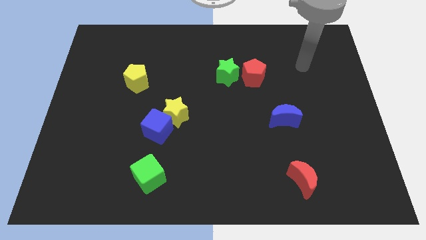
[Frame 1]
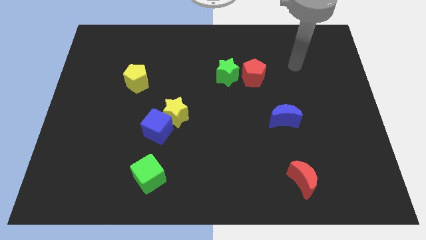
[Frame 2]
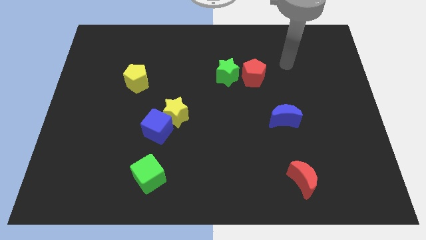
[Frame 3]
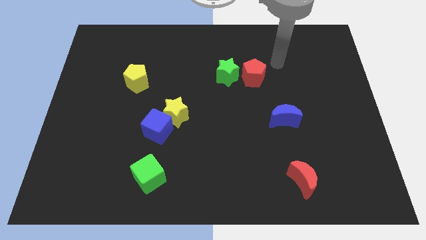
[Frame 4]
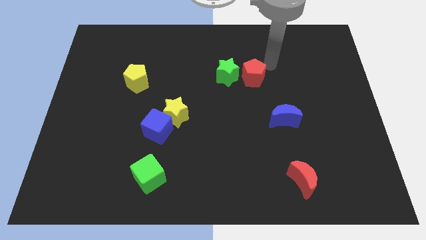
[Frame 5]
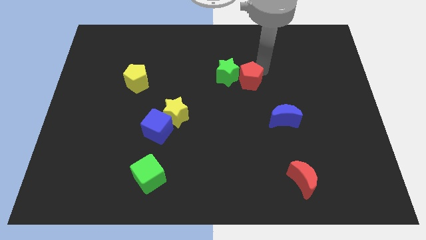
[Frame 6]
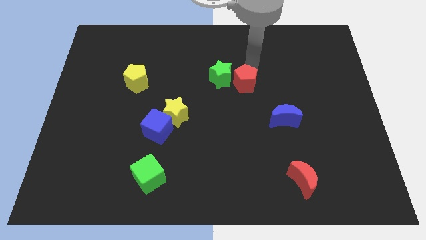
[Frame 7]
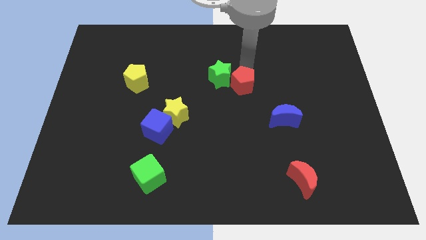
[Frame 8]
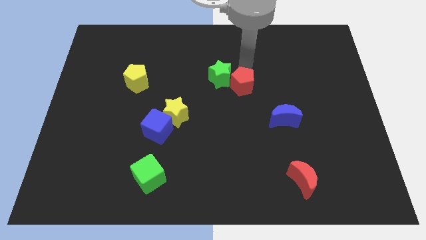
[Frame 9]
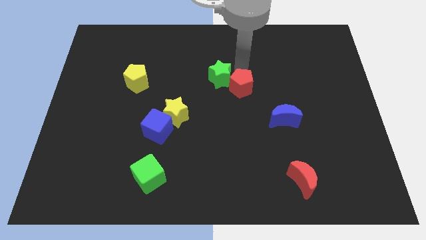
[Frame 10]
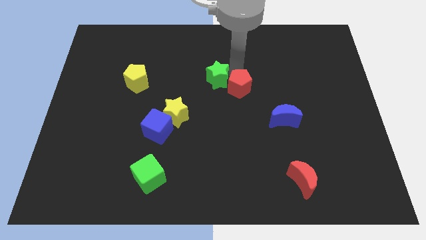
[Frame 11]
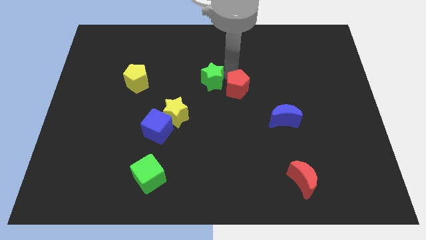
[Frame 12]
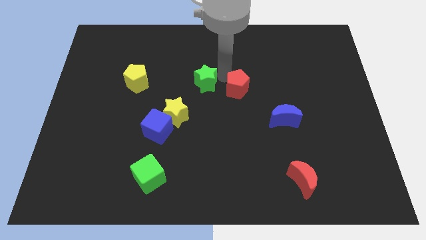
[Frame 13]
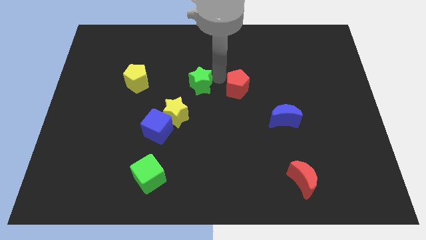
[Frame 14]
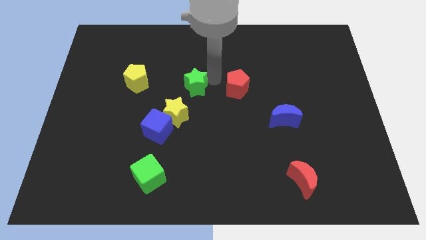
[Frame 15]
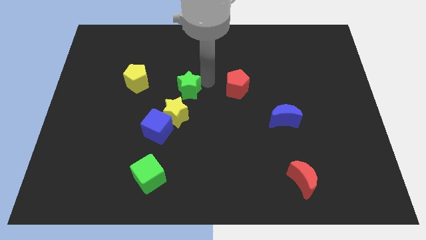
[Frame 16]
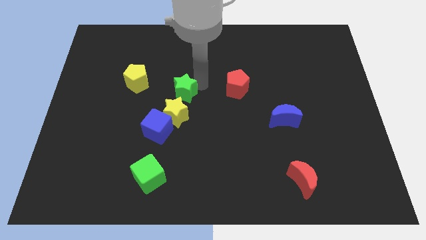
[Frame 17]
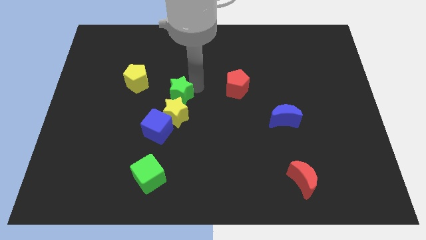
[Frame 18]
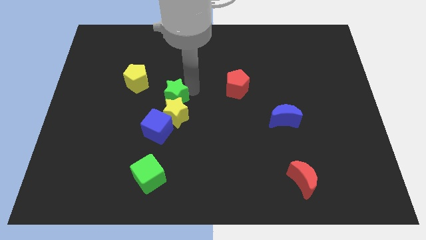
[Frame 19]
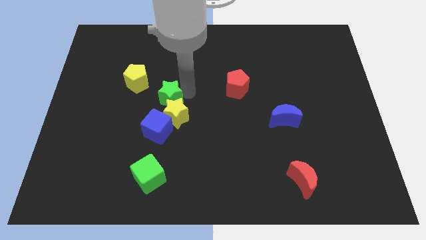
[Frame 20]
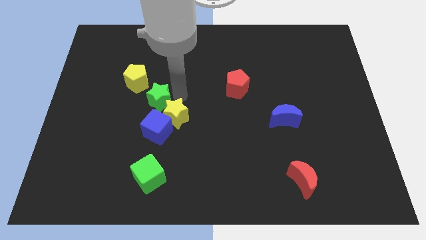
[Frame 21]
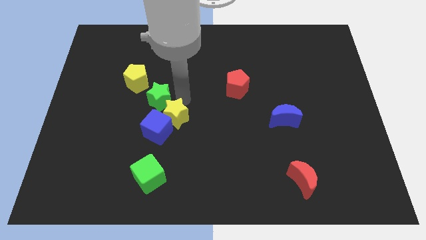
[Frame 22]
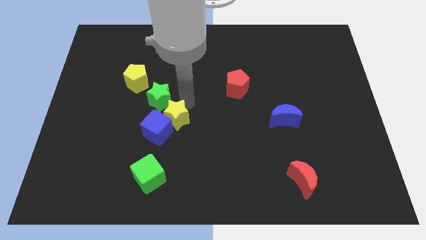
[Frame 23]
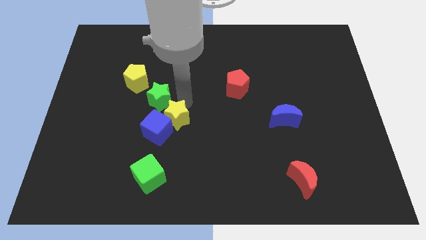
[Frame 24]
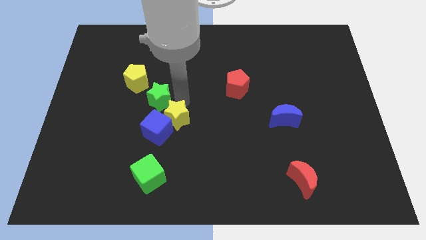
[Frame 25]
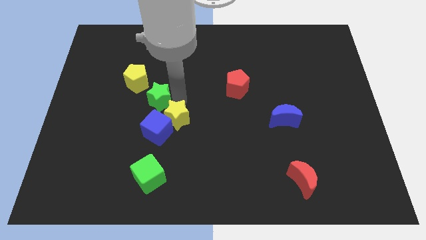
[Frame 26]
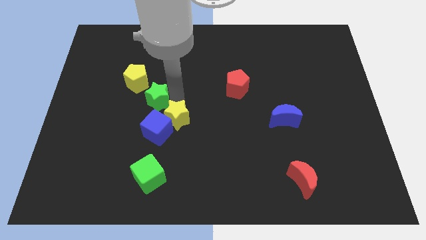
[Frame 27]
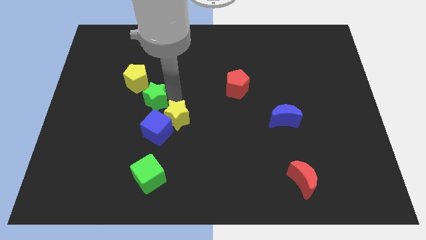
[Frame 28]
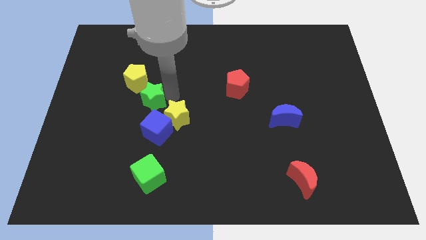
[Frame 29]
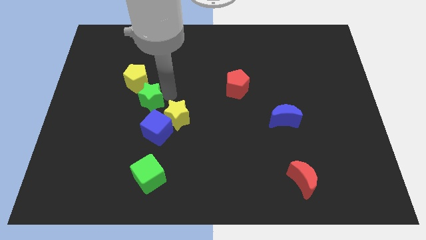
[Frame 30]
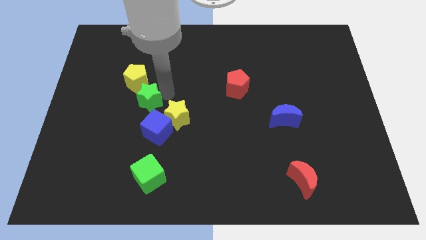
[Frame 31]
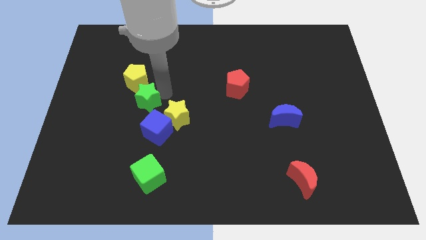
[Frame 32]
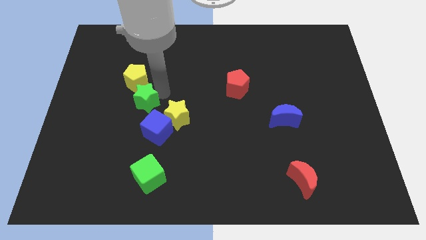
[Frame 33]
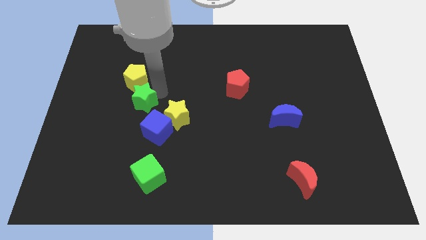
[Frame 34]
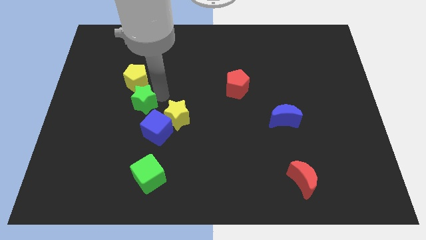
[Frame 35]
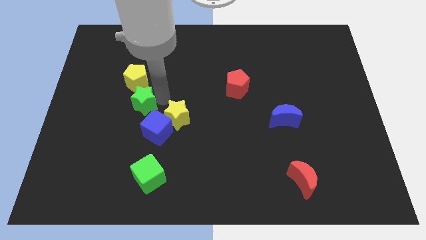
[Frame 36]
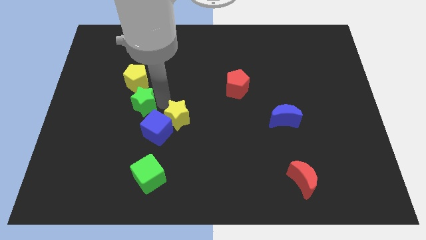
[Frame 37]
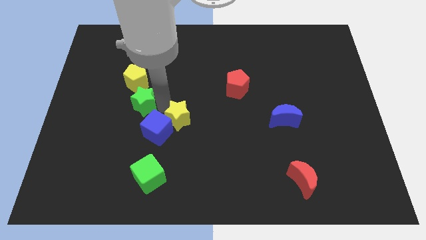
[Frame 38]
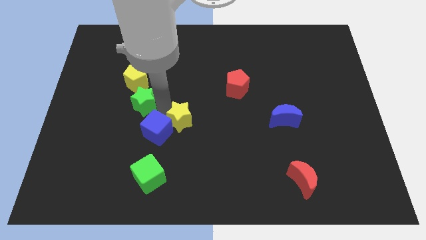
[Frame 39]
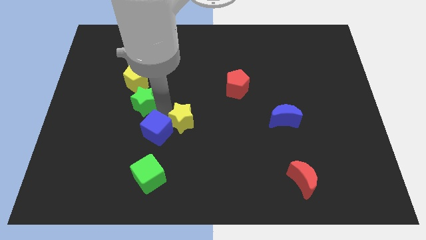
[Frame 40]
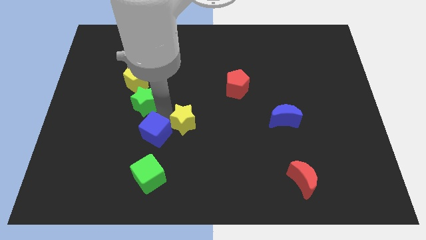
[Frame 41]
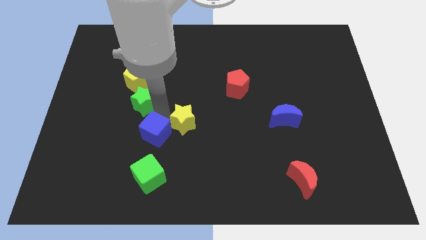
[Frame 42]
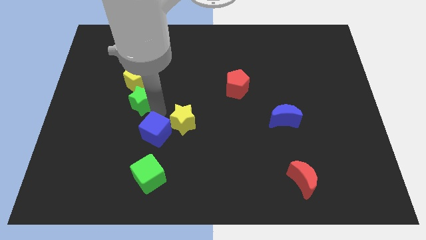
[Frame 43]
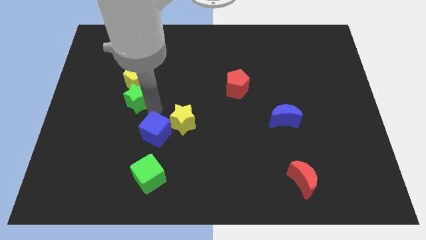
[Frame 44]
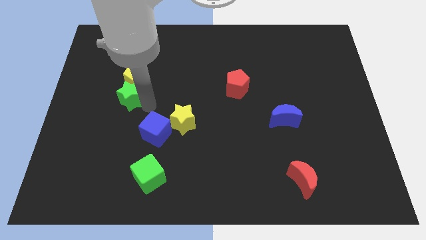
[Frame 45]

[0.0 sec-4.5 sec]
slide the green star to the left

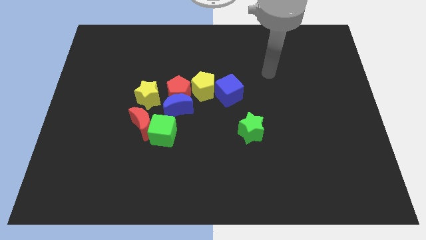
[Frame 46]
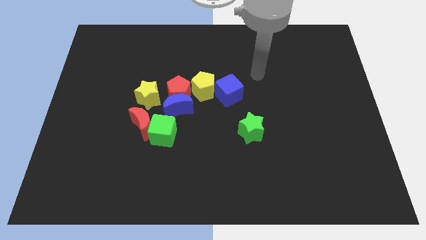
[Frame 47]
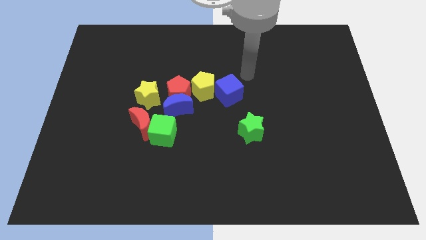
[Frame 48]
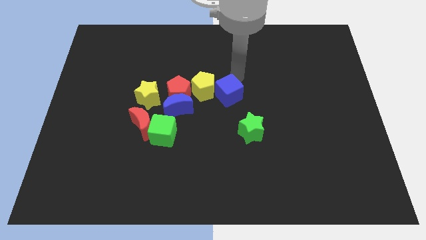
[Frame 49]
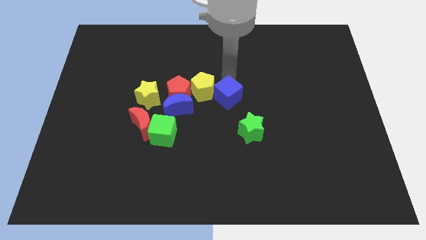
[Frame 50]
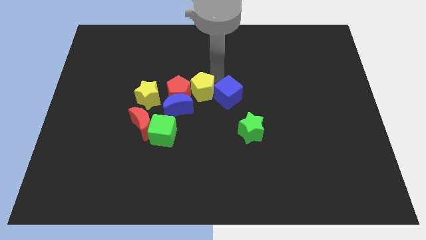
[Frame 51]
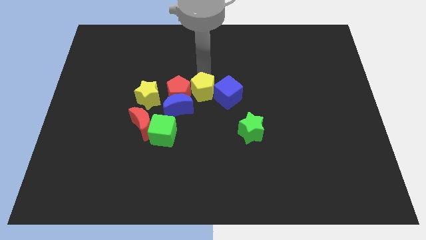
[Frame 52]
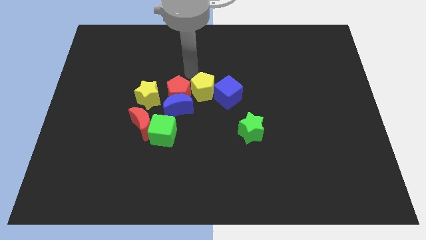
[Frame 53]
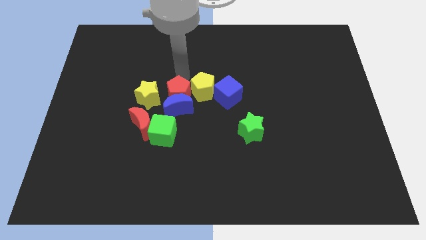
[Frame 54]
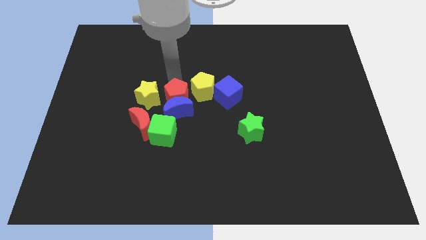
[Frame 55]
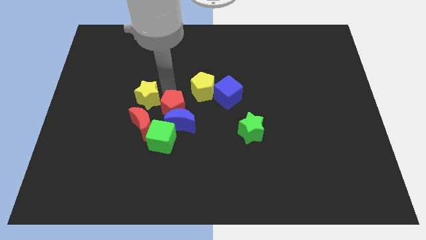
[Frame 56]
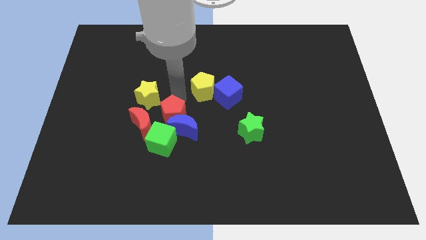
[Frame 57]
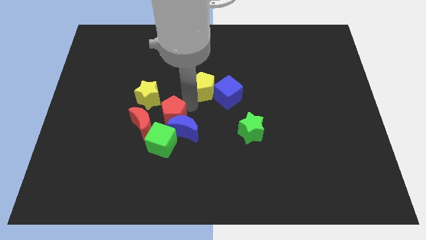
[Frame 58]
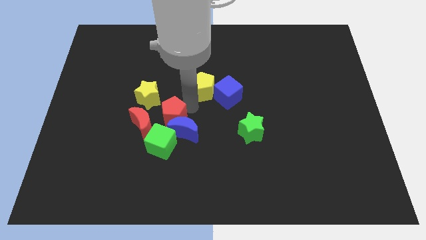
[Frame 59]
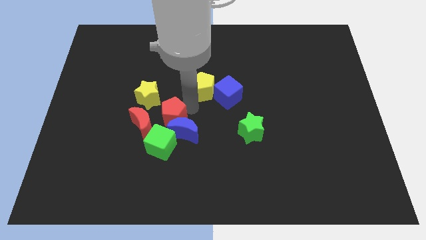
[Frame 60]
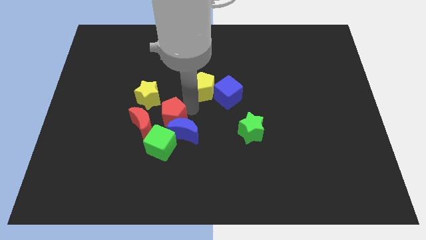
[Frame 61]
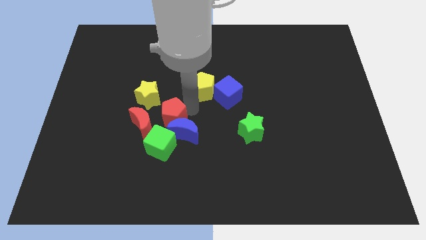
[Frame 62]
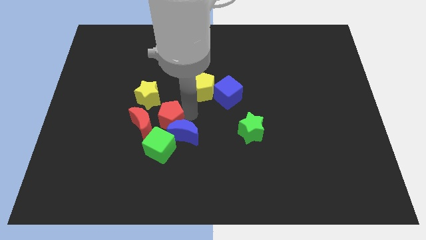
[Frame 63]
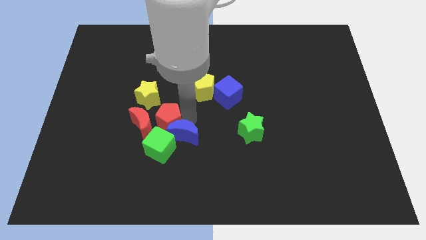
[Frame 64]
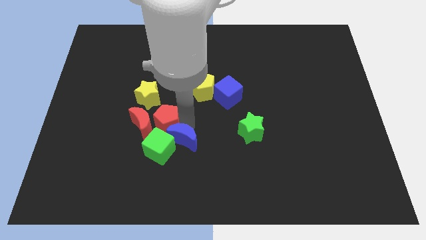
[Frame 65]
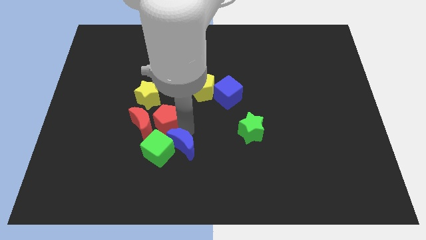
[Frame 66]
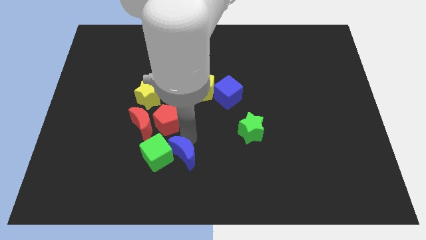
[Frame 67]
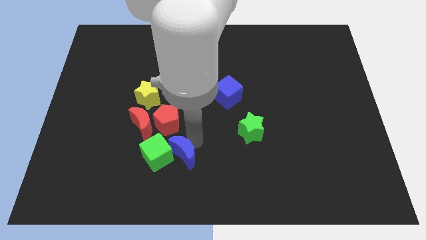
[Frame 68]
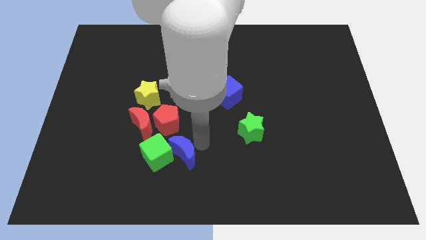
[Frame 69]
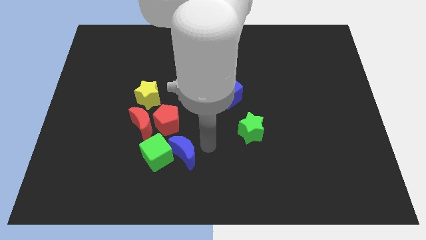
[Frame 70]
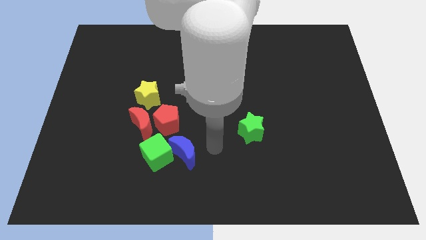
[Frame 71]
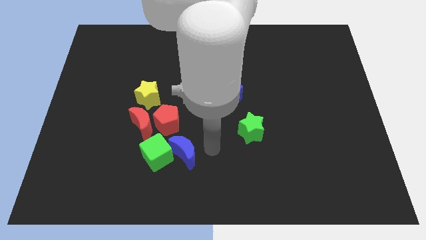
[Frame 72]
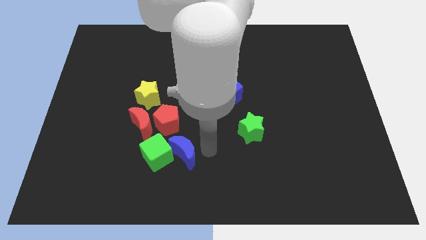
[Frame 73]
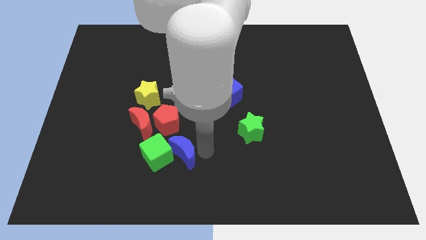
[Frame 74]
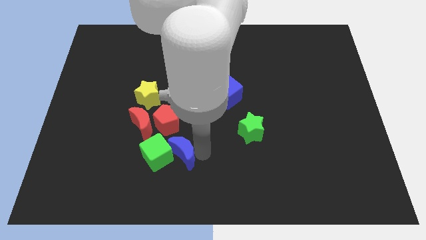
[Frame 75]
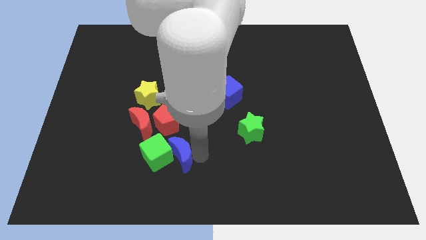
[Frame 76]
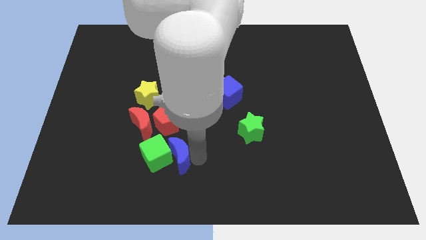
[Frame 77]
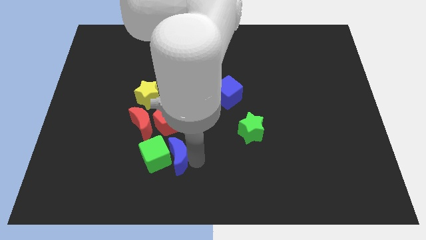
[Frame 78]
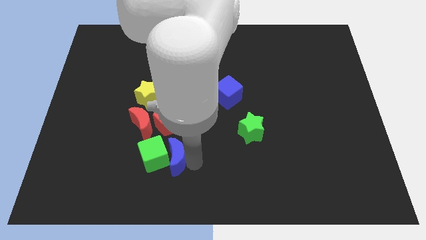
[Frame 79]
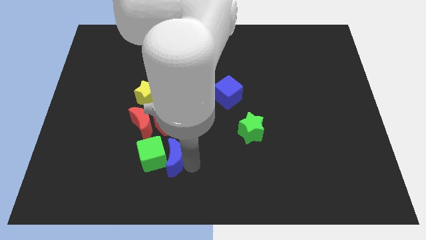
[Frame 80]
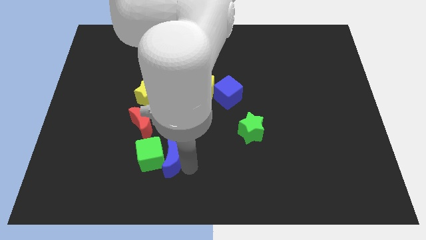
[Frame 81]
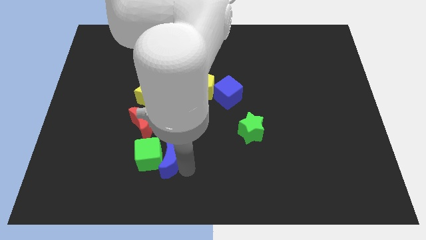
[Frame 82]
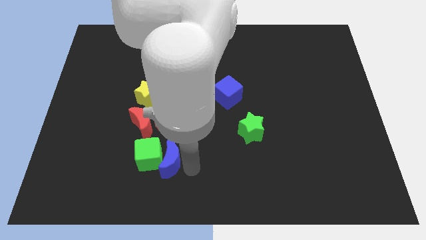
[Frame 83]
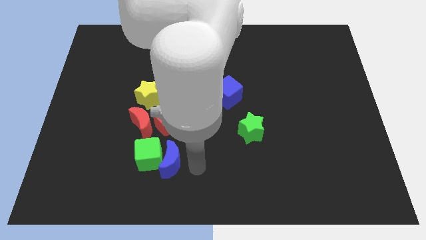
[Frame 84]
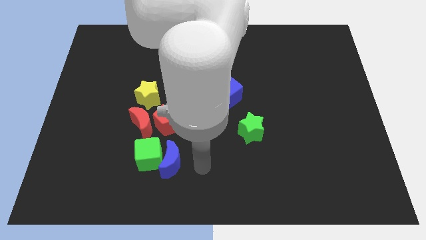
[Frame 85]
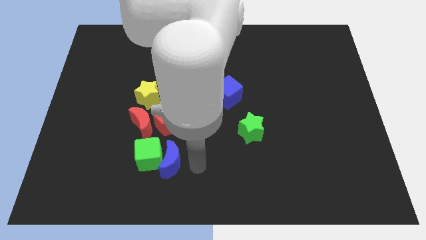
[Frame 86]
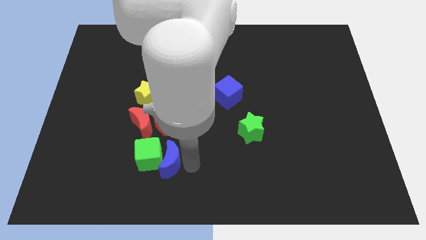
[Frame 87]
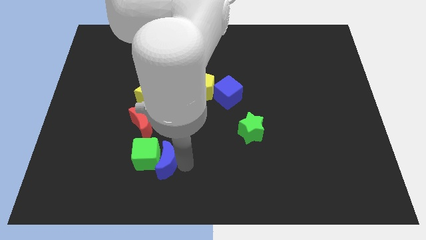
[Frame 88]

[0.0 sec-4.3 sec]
slightly slide the blue moon down and then left
